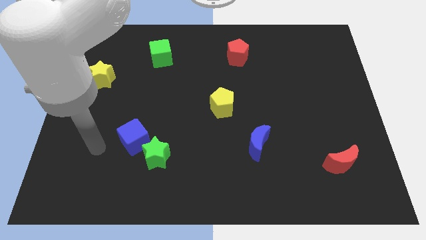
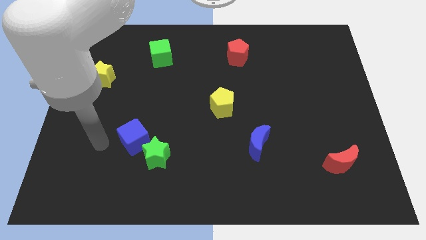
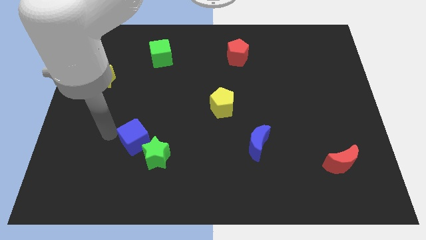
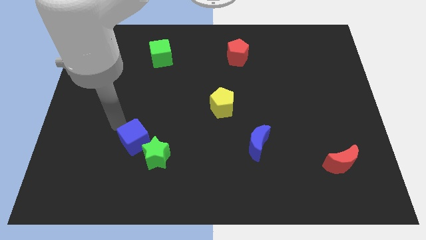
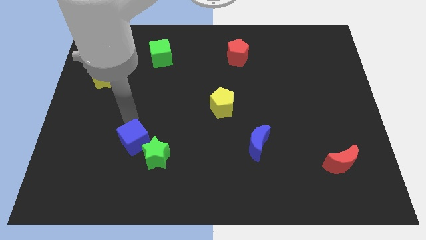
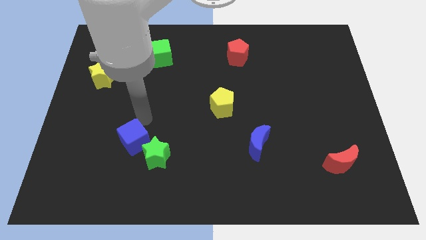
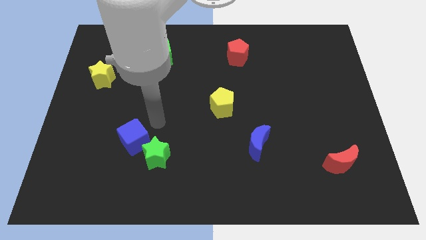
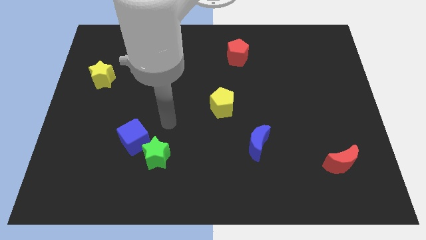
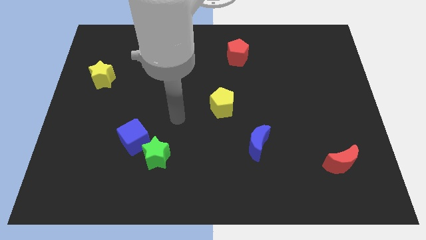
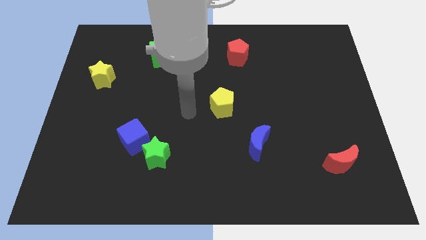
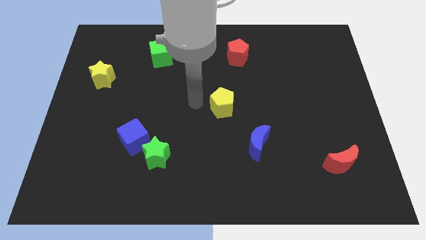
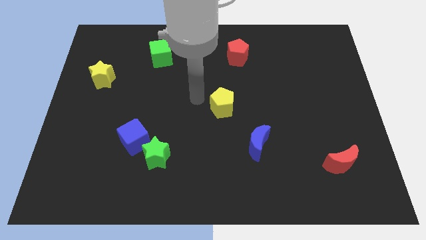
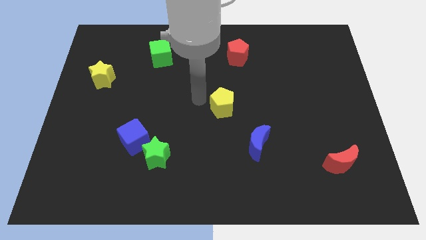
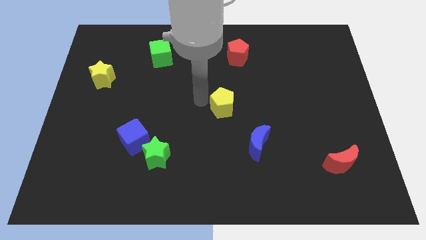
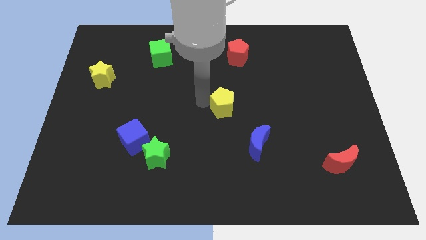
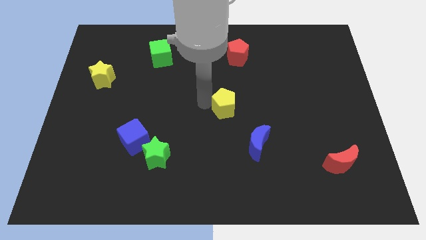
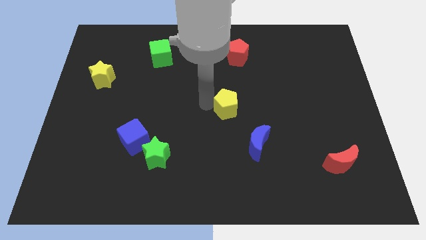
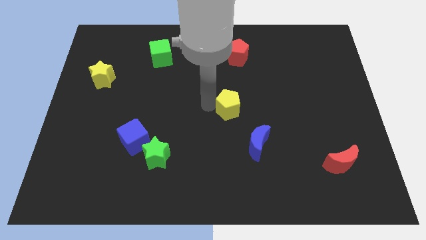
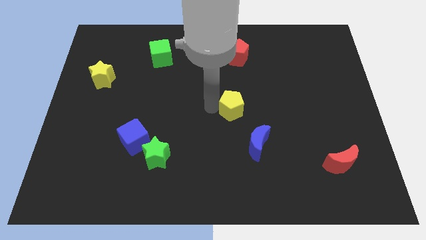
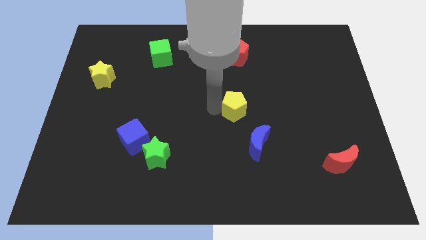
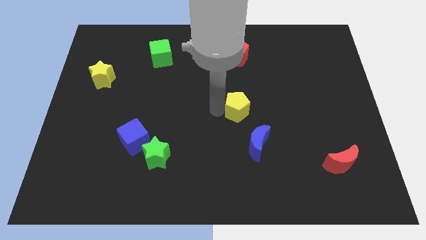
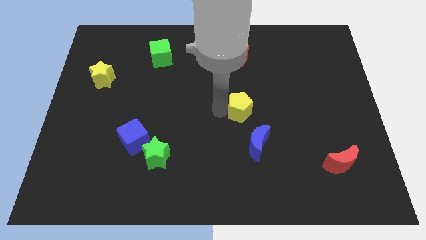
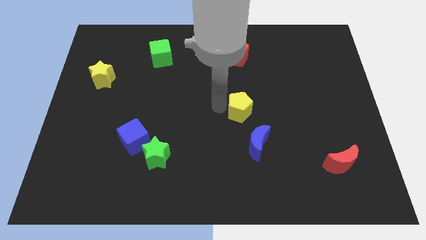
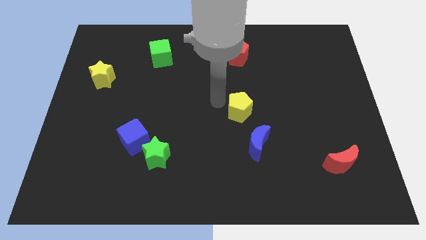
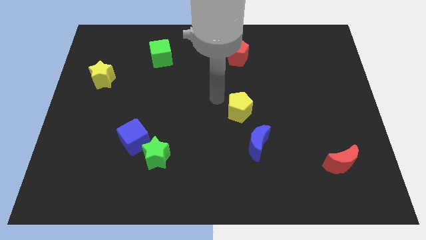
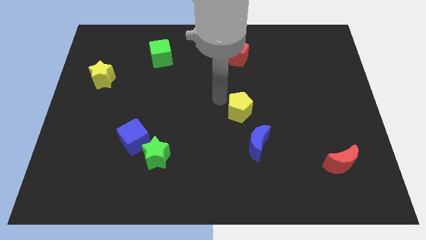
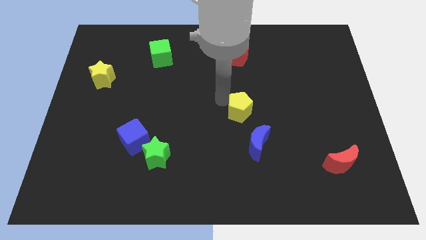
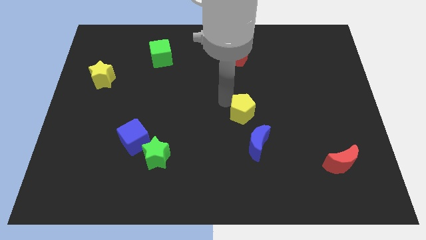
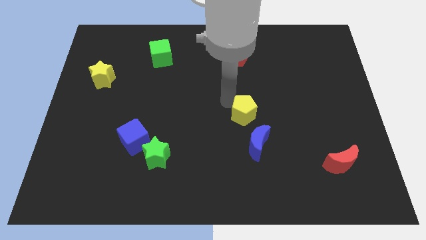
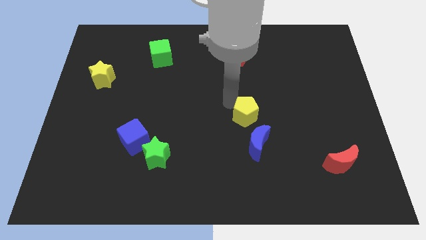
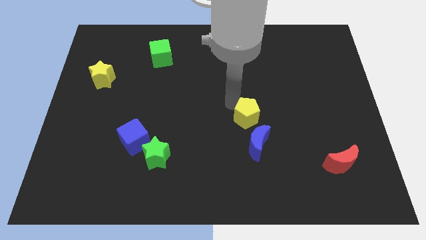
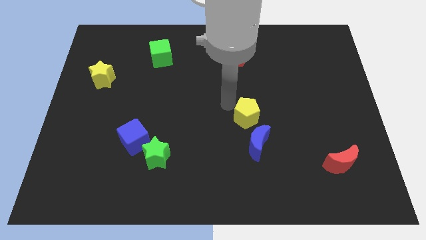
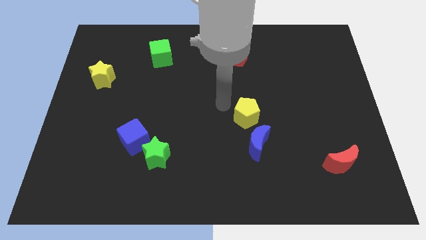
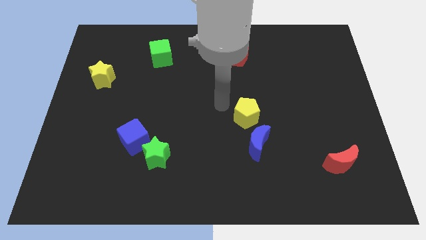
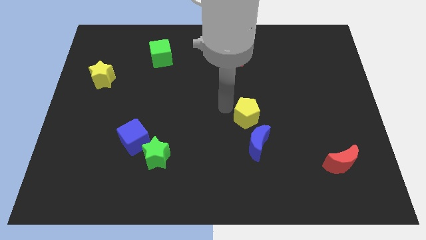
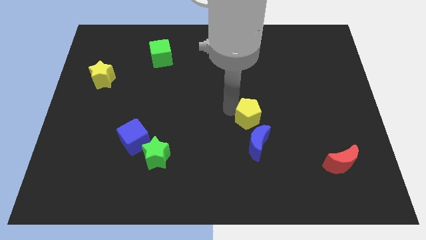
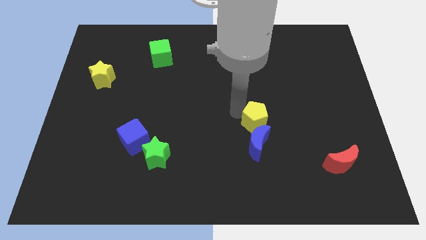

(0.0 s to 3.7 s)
slightly slide the yellow pentagon downwards and right

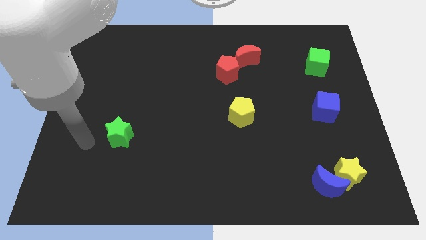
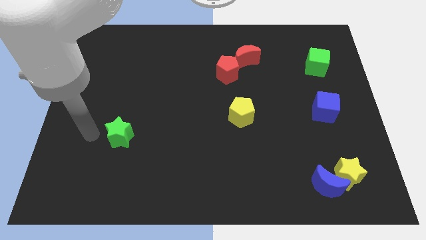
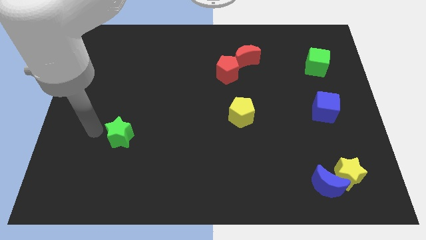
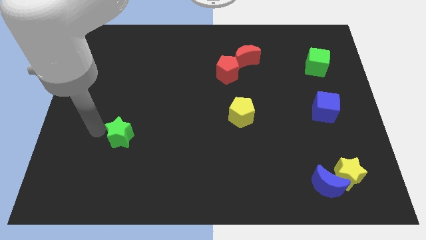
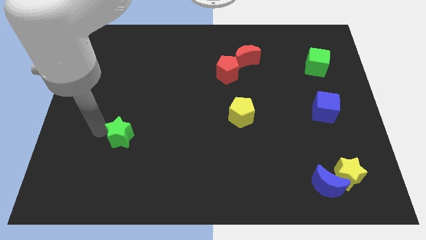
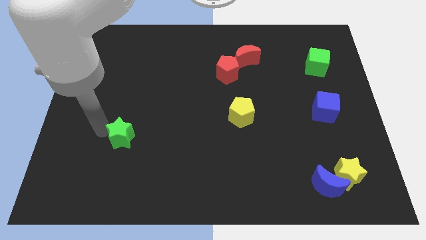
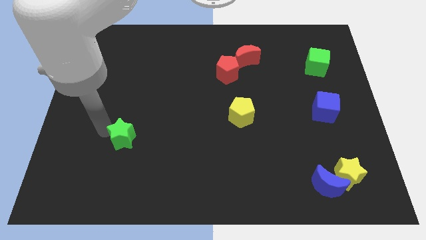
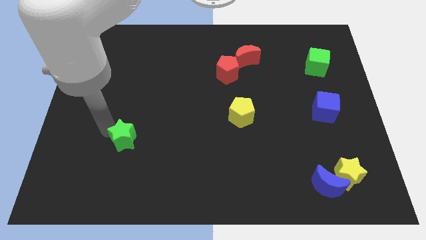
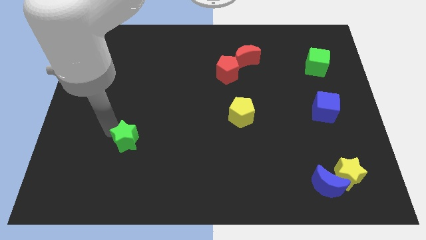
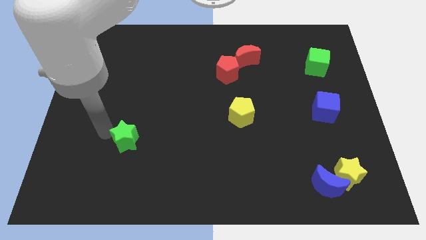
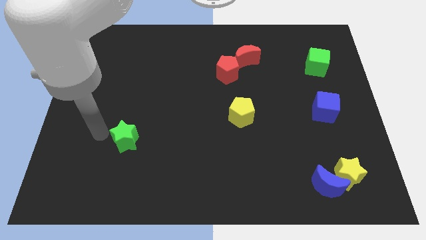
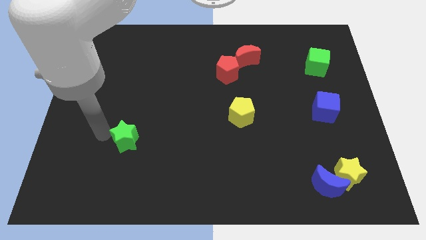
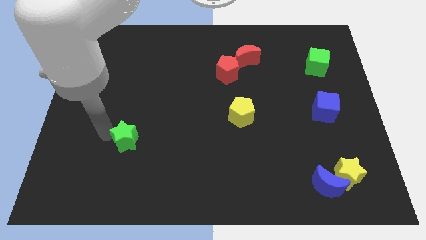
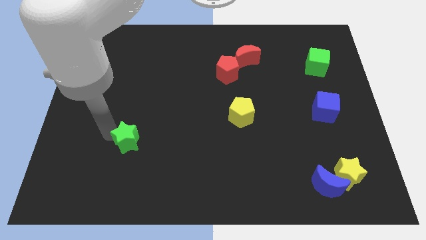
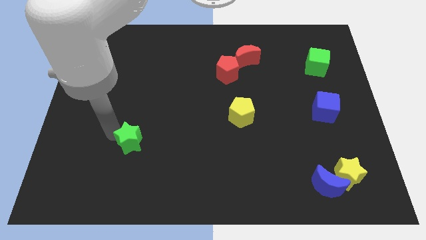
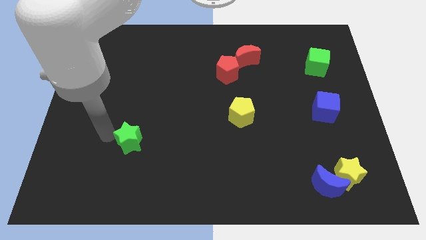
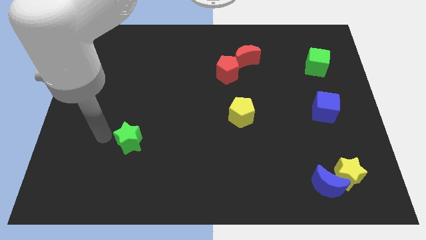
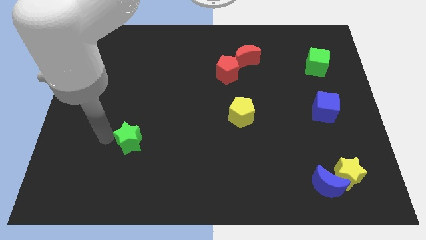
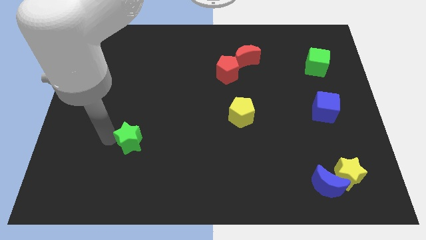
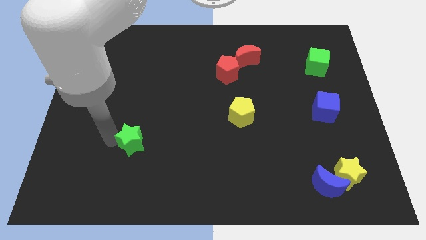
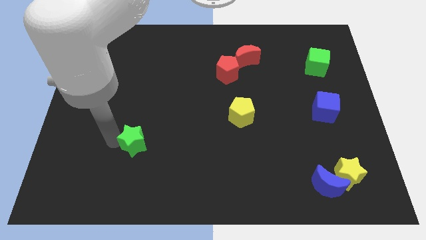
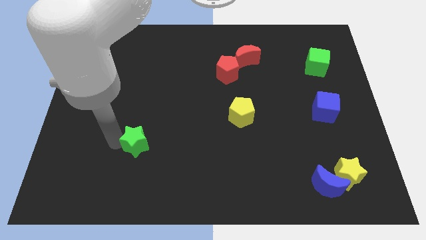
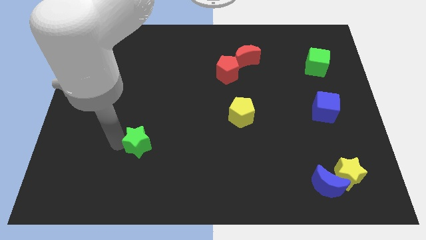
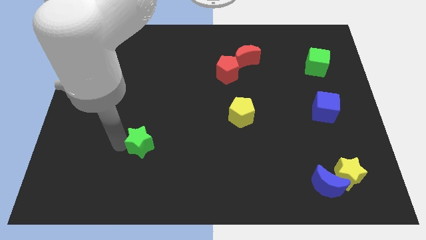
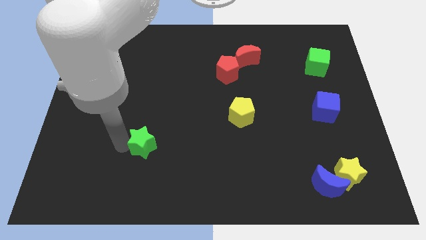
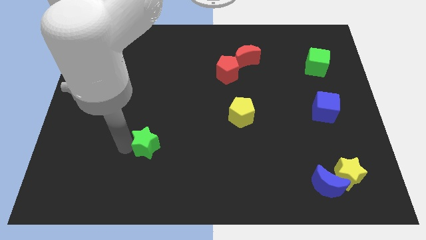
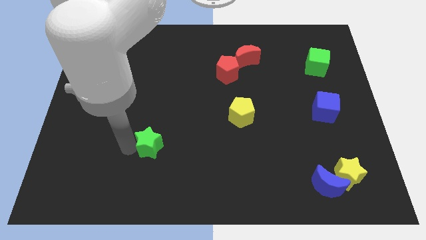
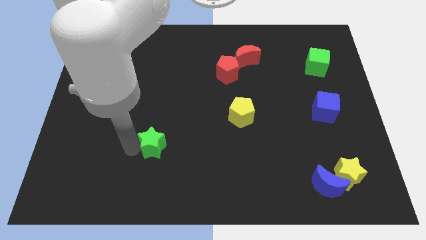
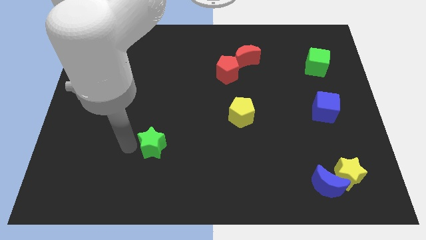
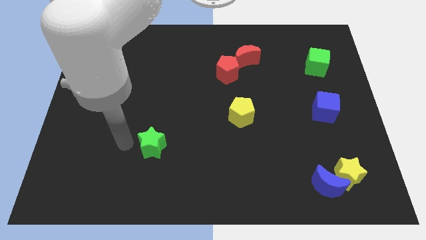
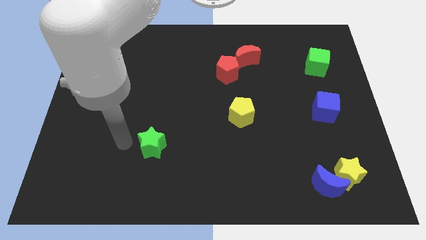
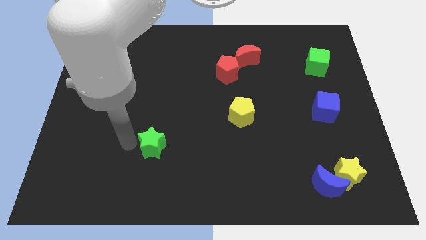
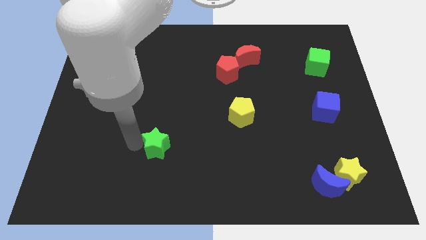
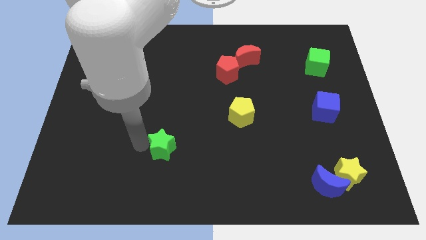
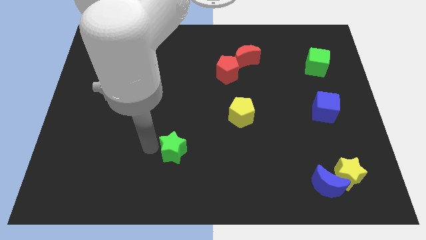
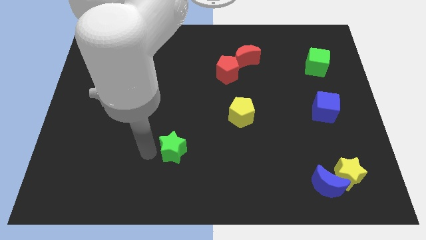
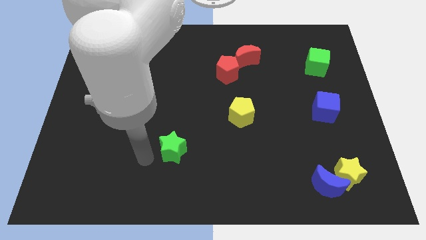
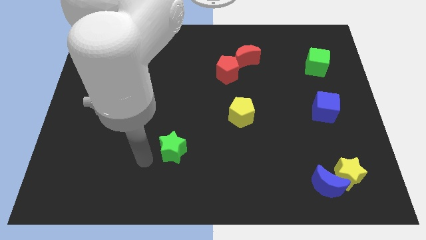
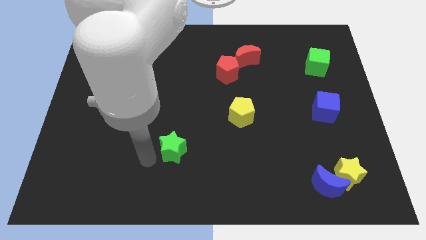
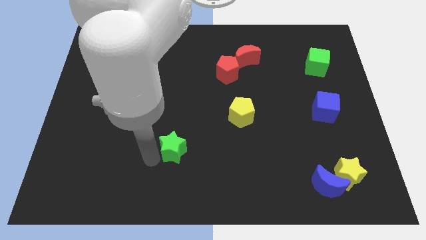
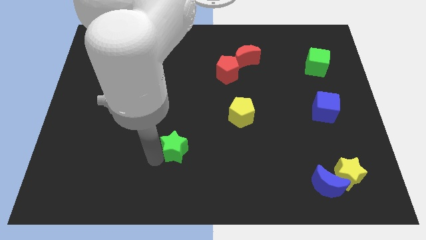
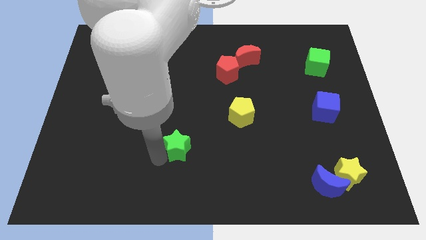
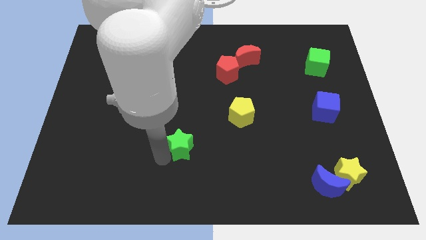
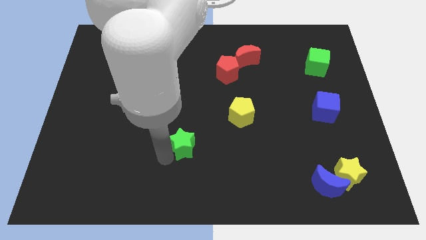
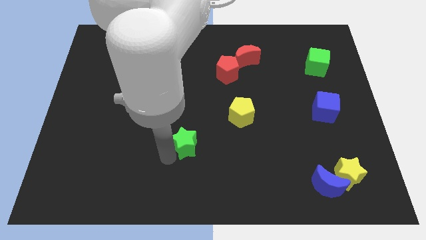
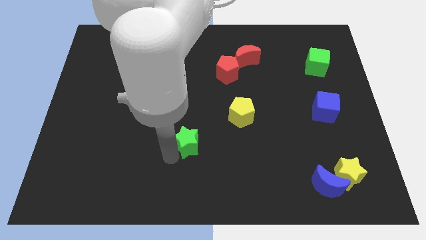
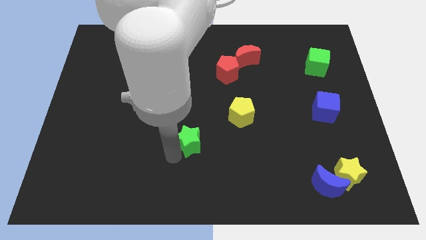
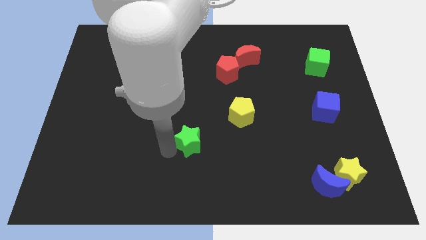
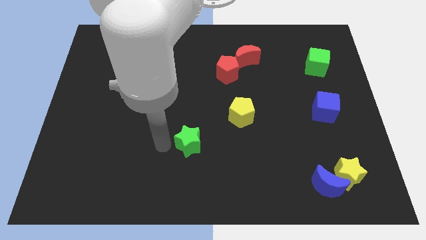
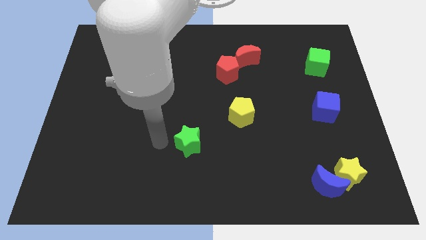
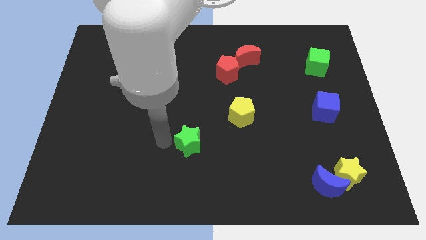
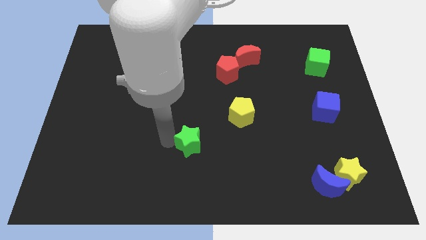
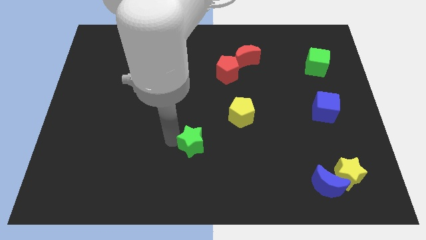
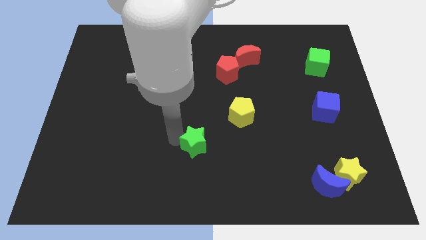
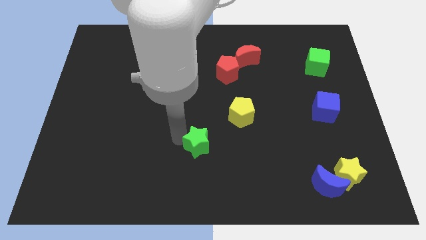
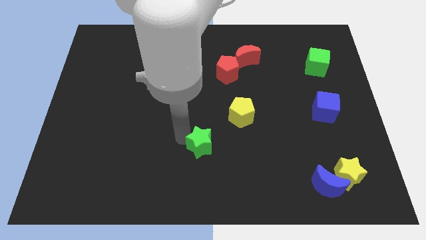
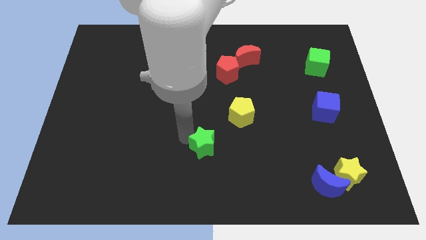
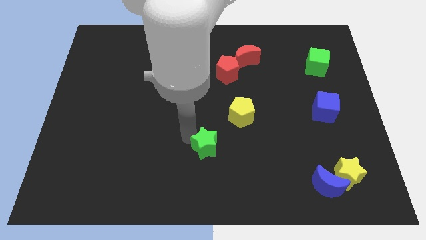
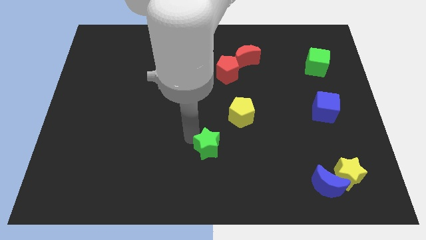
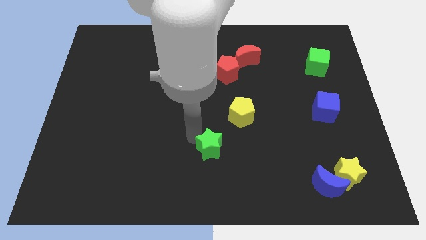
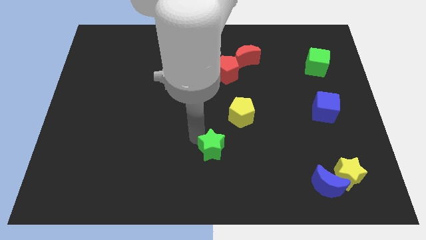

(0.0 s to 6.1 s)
slide the green star right
